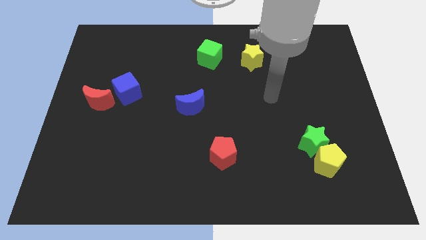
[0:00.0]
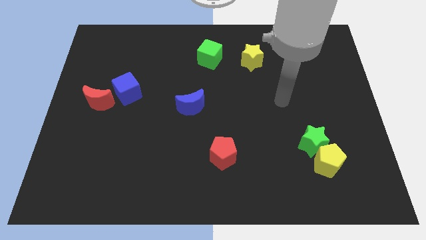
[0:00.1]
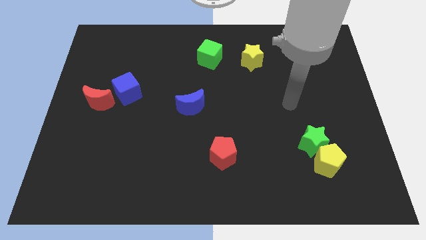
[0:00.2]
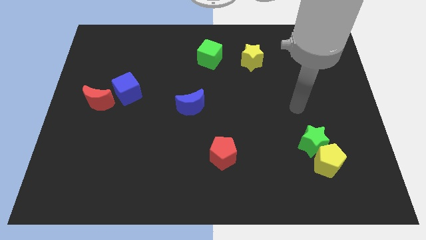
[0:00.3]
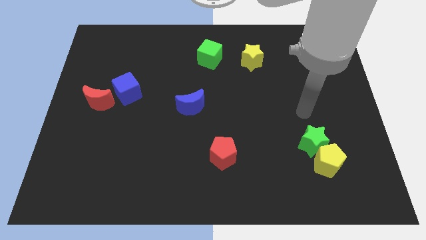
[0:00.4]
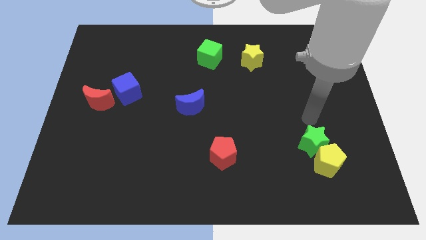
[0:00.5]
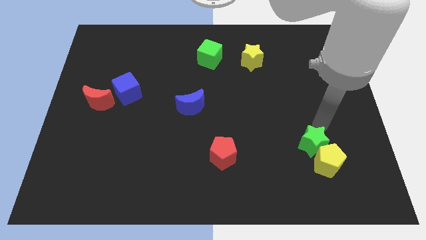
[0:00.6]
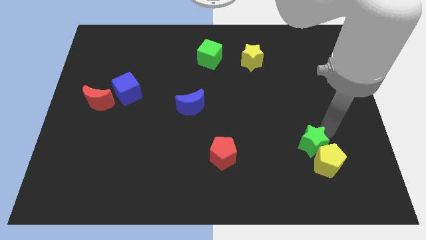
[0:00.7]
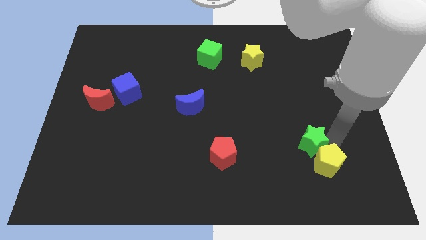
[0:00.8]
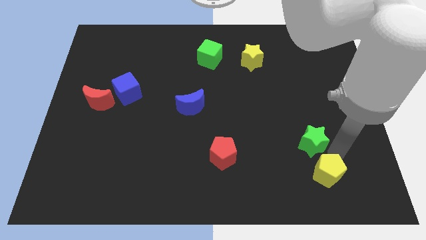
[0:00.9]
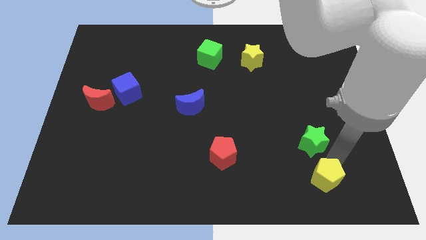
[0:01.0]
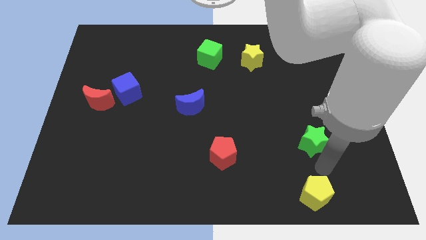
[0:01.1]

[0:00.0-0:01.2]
move the green star away from the yellow pentagon

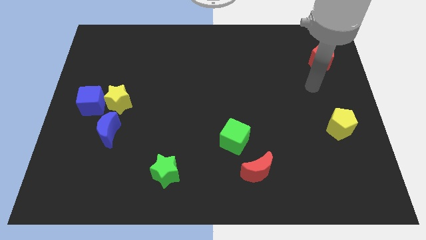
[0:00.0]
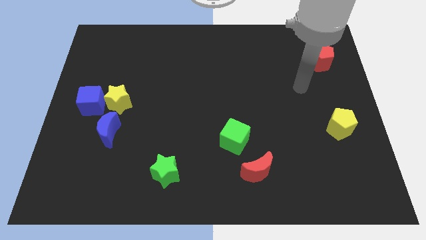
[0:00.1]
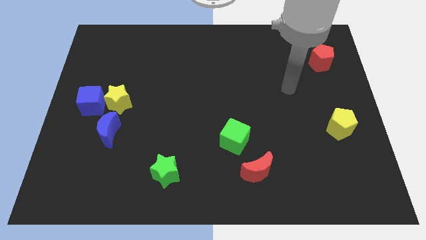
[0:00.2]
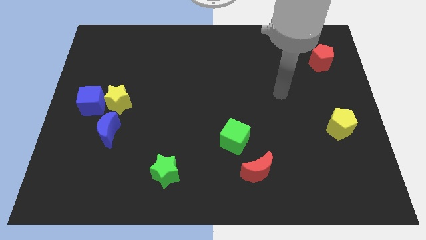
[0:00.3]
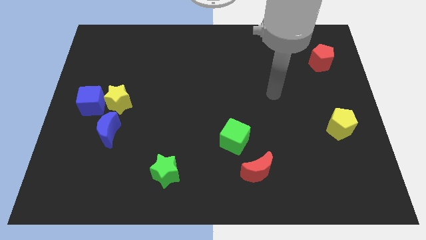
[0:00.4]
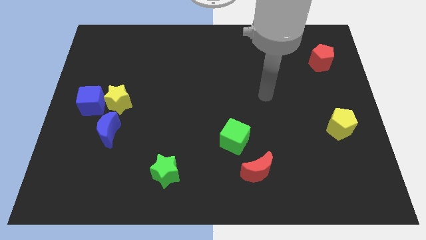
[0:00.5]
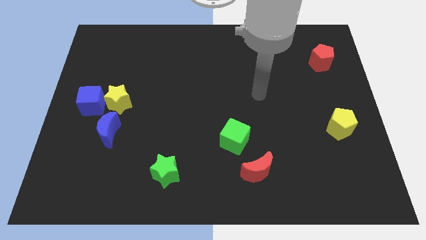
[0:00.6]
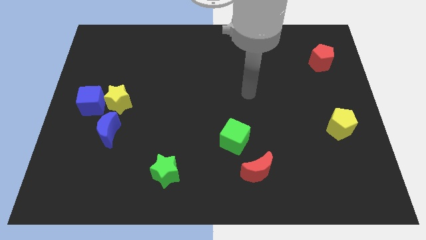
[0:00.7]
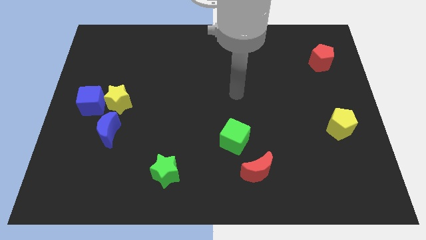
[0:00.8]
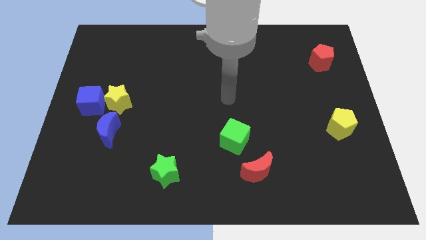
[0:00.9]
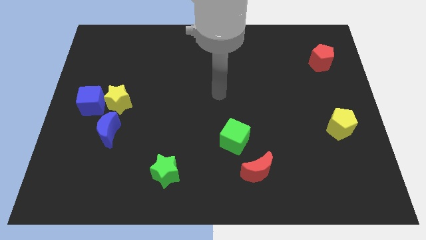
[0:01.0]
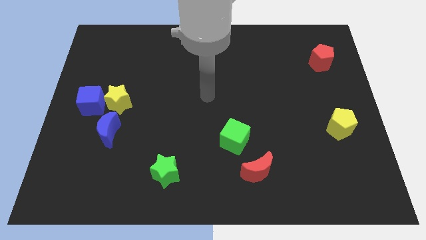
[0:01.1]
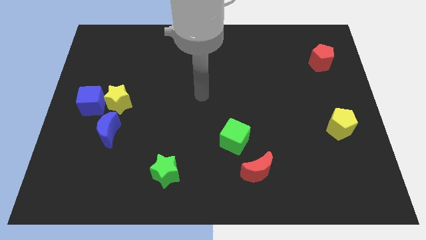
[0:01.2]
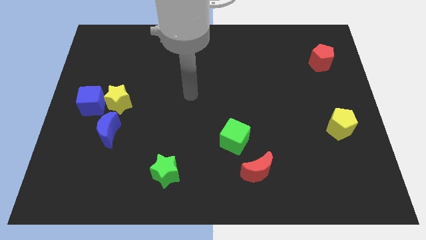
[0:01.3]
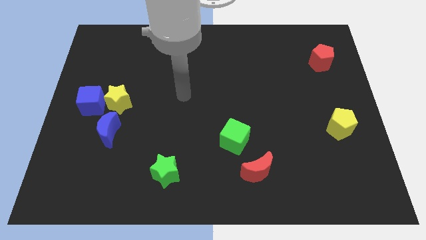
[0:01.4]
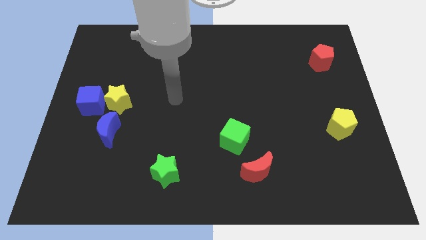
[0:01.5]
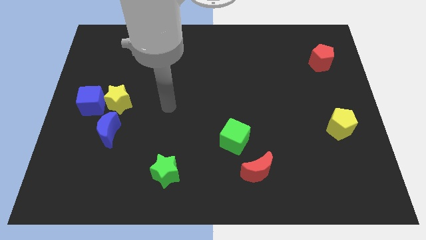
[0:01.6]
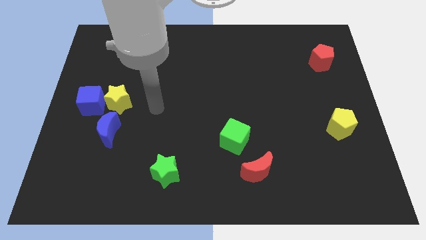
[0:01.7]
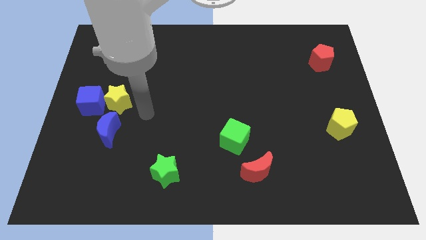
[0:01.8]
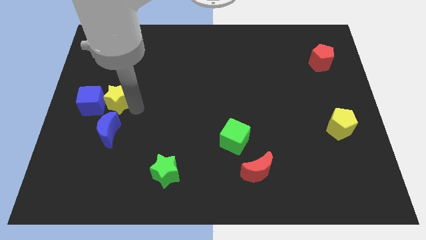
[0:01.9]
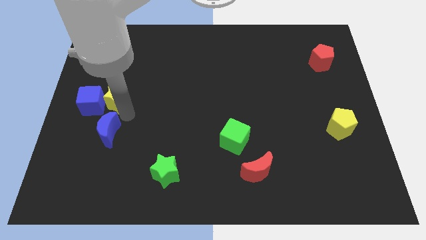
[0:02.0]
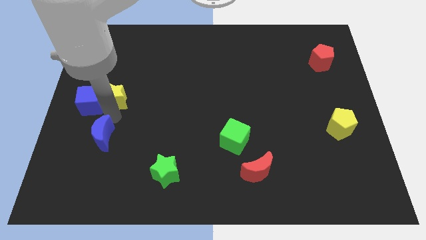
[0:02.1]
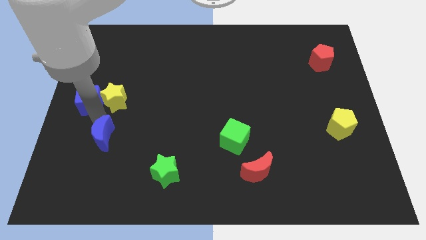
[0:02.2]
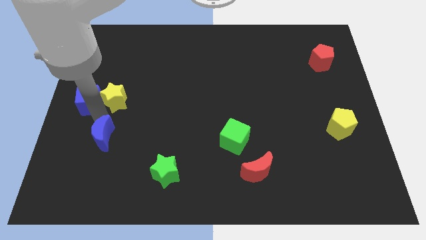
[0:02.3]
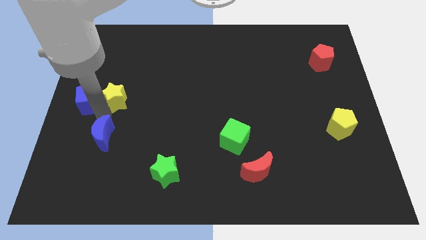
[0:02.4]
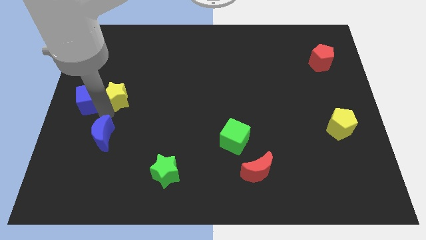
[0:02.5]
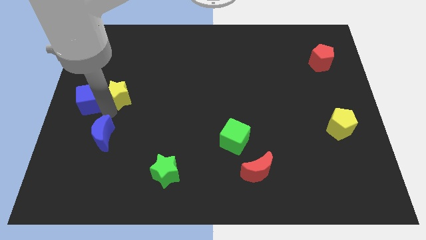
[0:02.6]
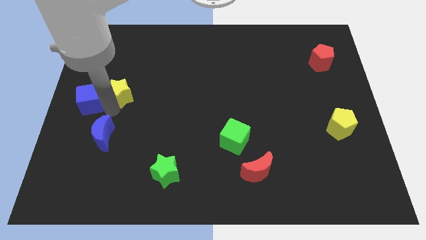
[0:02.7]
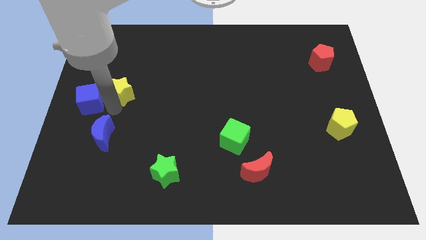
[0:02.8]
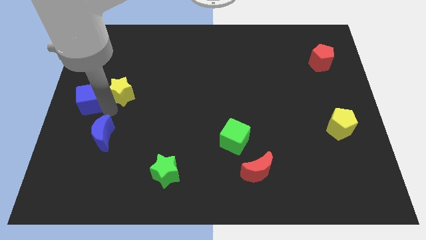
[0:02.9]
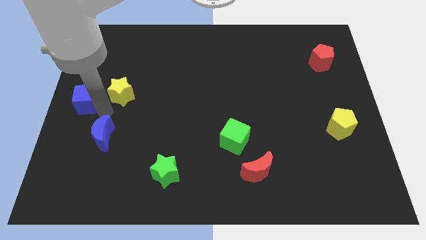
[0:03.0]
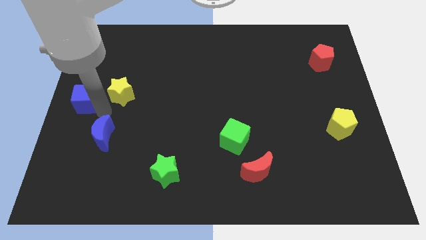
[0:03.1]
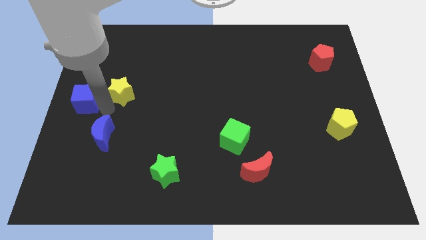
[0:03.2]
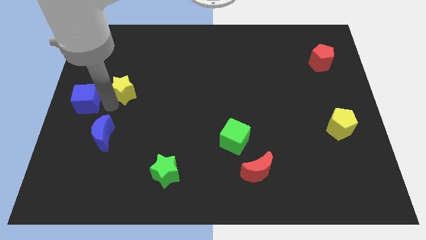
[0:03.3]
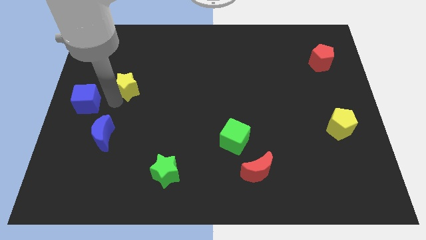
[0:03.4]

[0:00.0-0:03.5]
separate the yellow star from the blue cube and blue moon

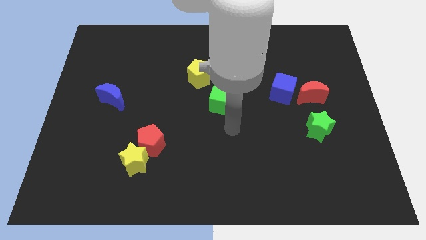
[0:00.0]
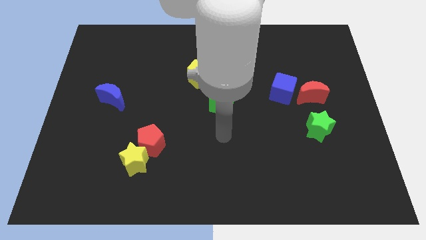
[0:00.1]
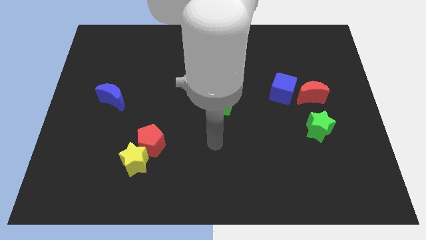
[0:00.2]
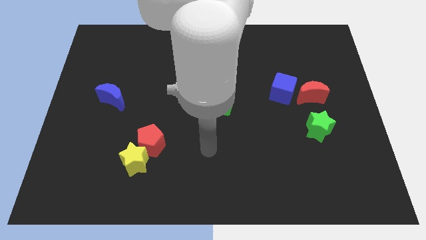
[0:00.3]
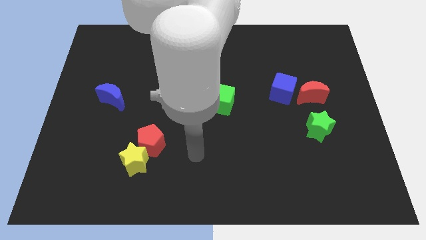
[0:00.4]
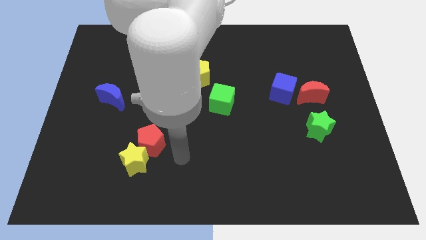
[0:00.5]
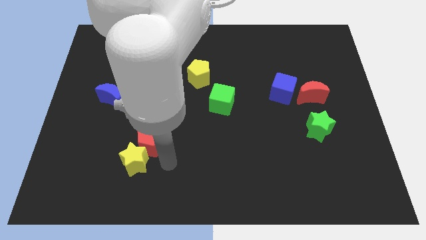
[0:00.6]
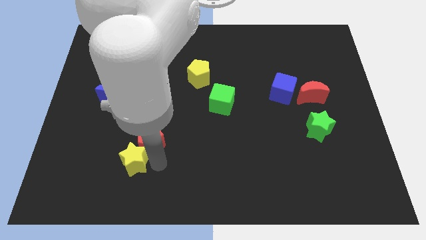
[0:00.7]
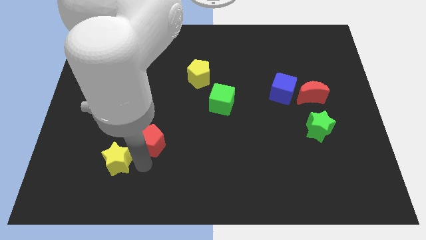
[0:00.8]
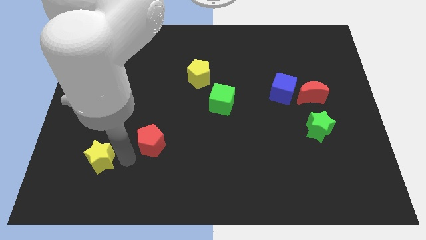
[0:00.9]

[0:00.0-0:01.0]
separate the red pentagon from the yellow star

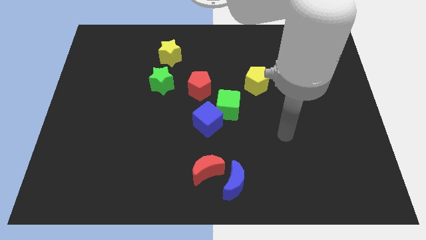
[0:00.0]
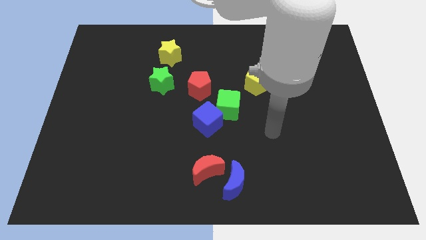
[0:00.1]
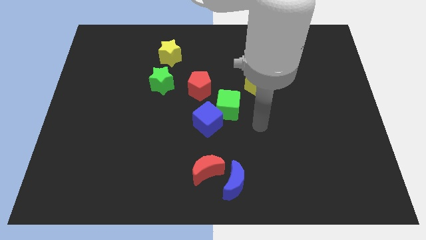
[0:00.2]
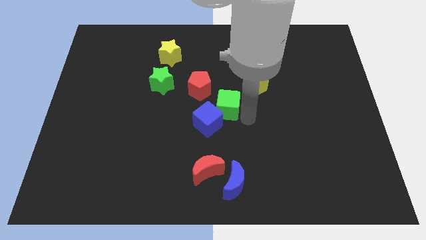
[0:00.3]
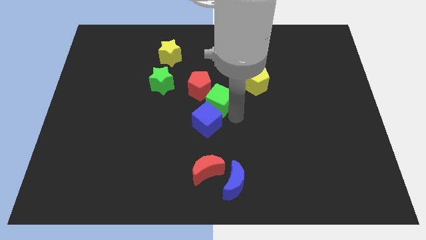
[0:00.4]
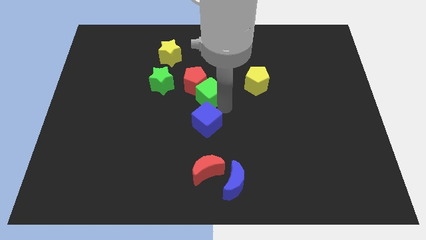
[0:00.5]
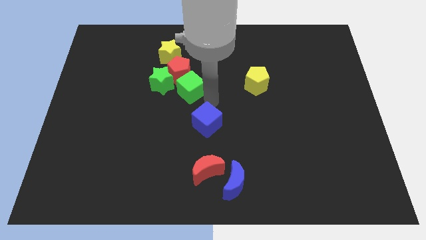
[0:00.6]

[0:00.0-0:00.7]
separate the blue cube from the green cube

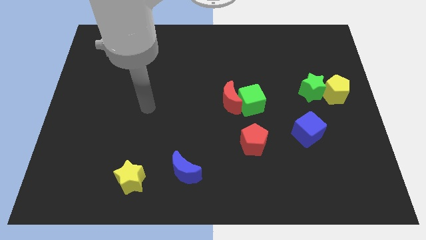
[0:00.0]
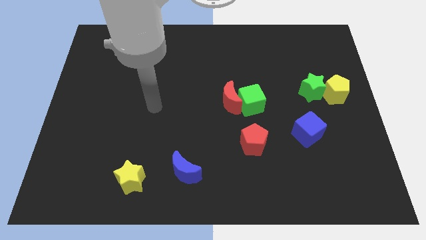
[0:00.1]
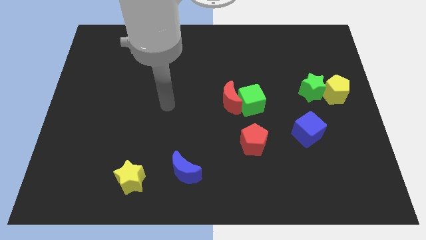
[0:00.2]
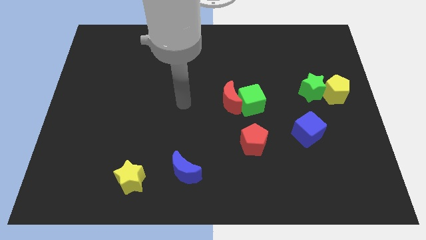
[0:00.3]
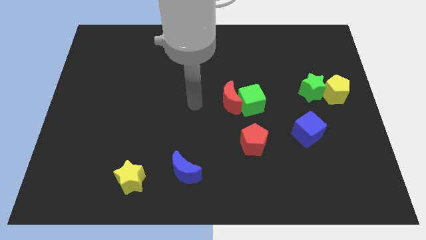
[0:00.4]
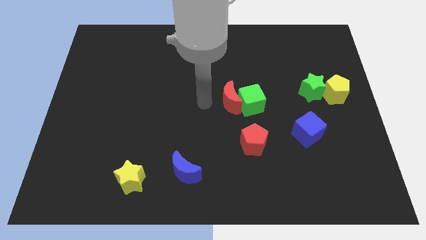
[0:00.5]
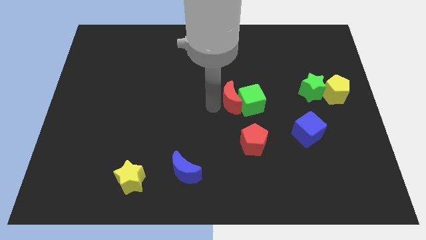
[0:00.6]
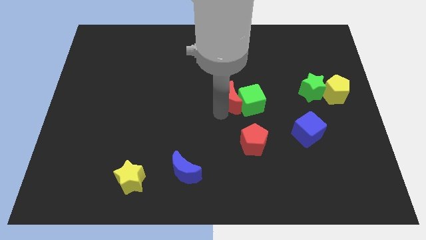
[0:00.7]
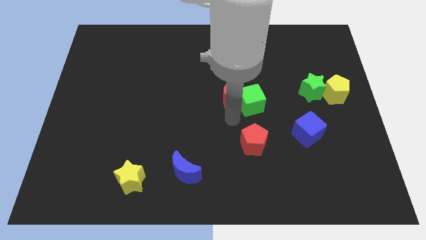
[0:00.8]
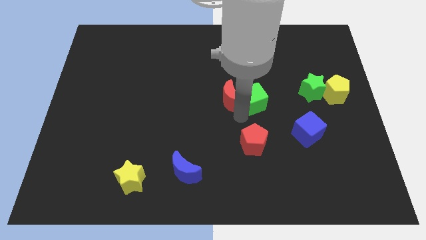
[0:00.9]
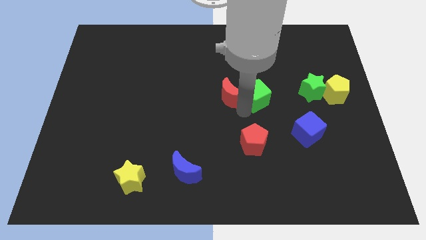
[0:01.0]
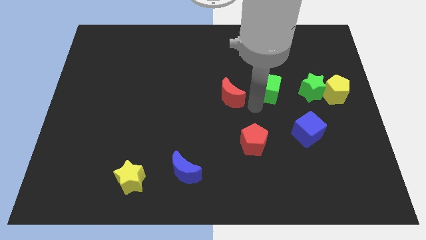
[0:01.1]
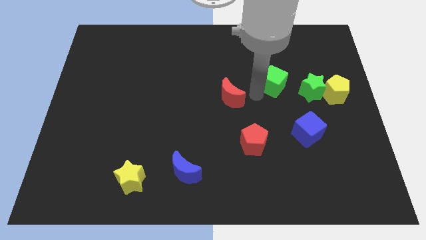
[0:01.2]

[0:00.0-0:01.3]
separate the red moon from the green cube

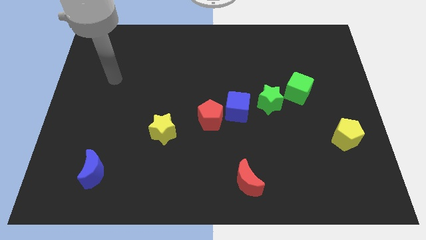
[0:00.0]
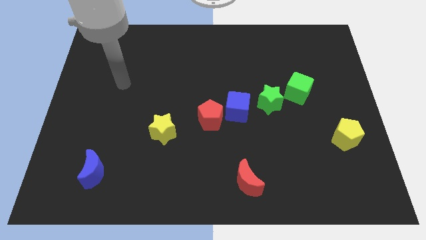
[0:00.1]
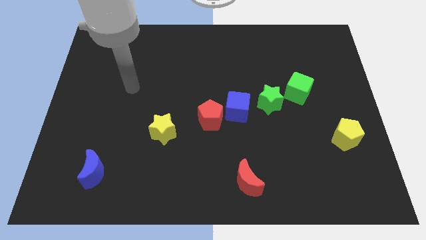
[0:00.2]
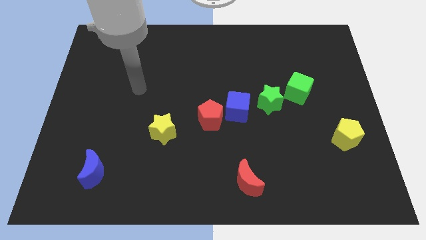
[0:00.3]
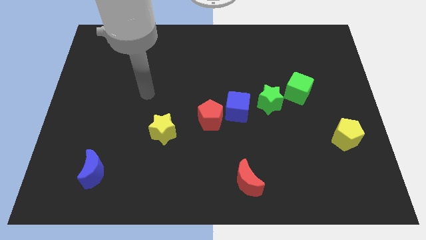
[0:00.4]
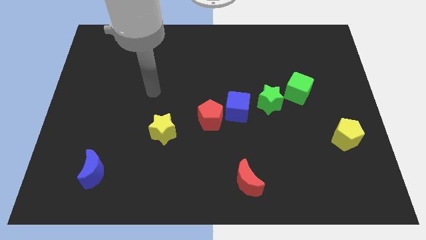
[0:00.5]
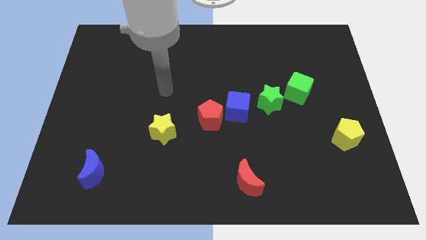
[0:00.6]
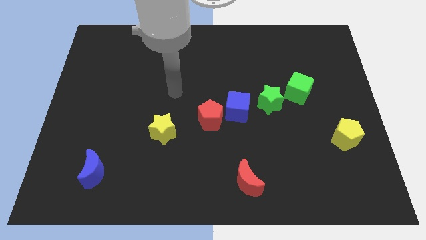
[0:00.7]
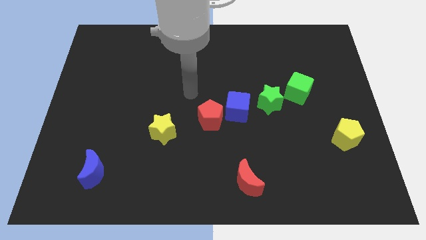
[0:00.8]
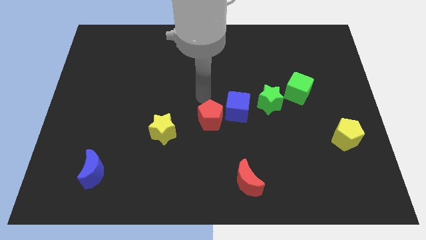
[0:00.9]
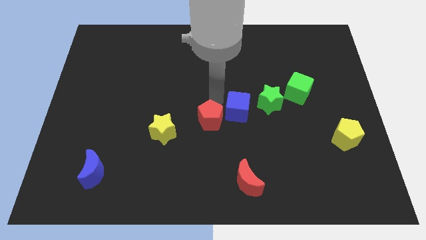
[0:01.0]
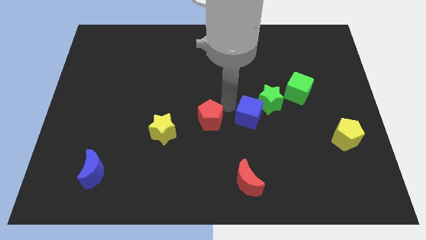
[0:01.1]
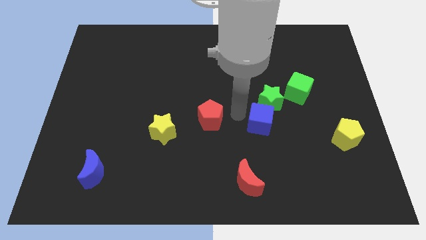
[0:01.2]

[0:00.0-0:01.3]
separate the red pentagon from the blue cube

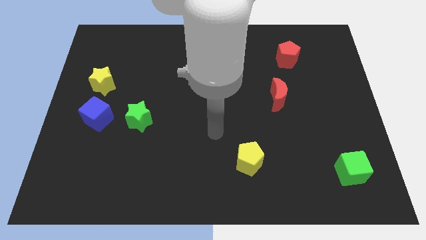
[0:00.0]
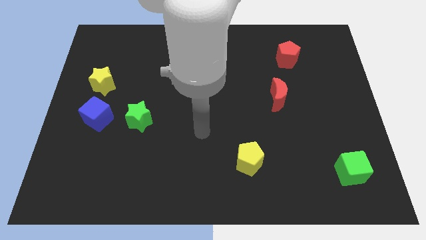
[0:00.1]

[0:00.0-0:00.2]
separate the green star from the blue cube
